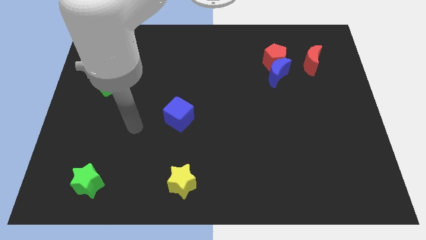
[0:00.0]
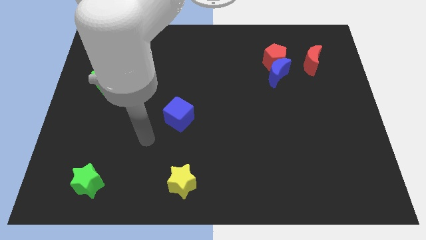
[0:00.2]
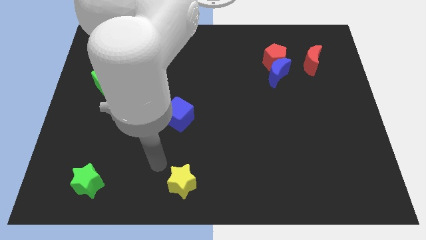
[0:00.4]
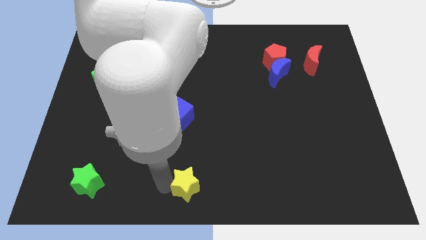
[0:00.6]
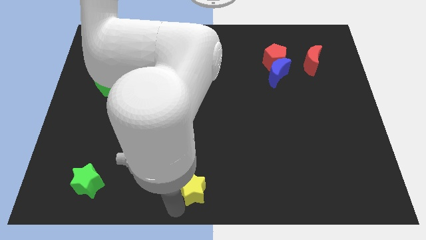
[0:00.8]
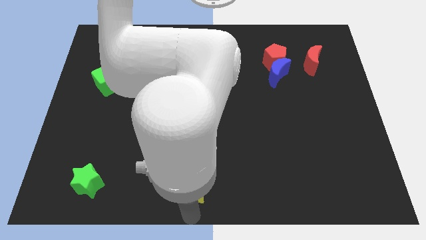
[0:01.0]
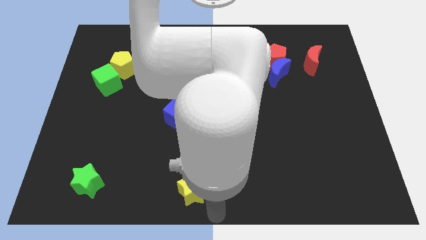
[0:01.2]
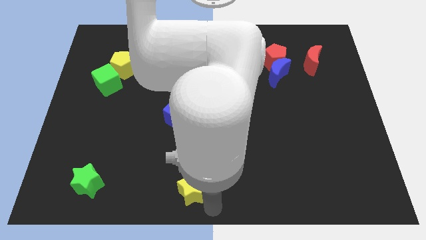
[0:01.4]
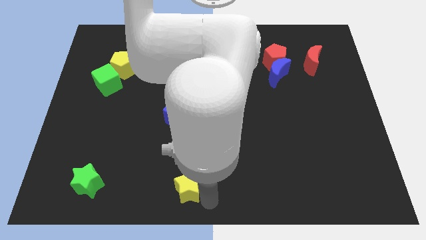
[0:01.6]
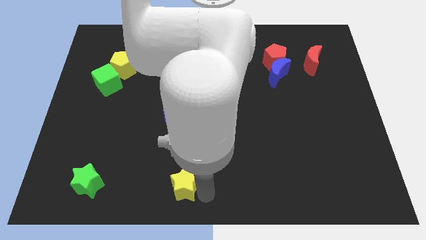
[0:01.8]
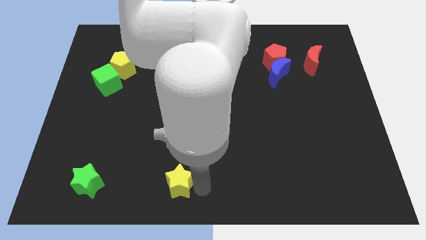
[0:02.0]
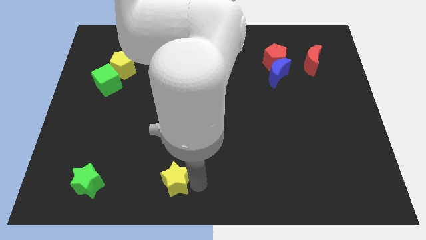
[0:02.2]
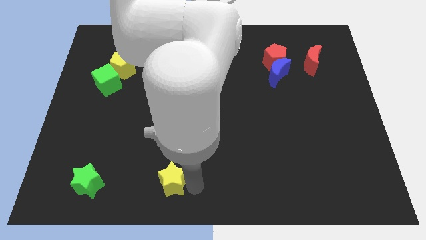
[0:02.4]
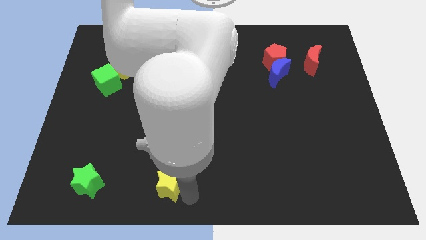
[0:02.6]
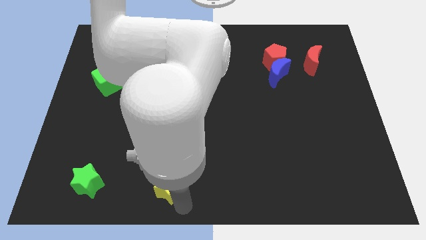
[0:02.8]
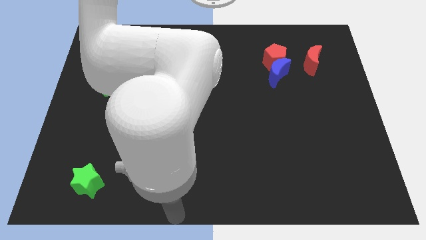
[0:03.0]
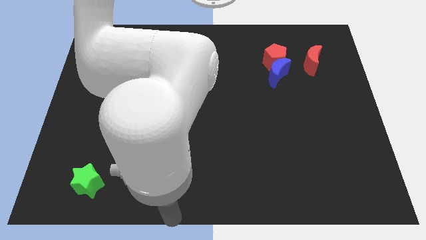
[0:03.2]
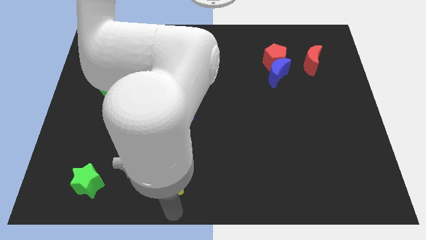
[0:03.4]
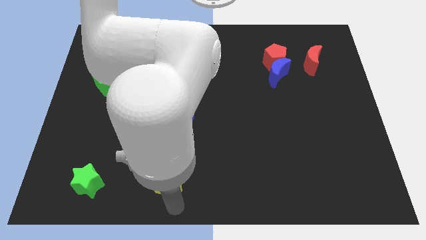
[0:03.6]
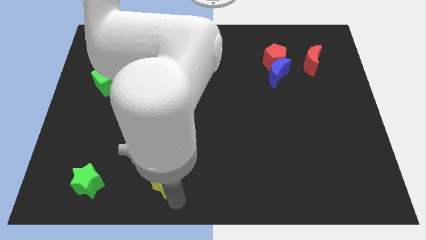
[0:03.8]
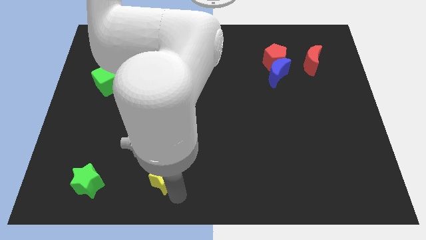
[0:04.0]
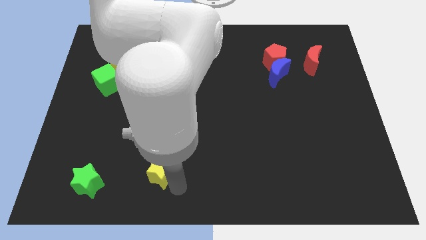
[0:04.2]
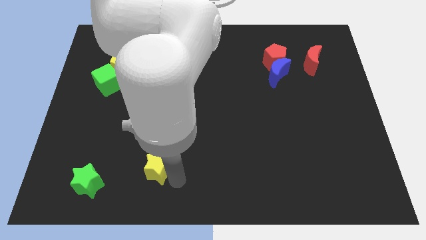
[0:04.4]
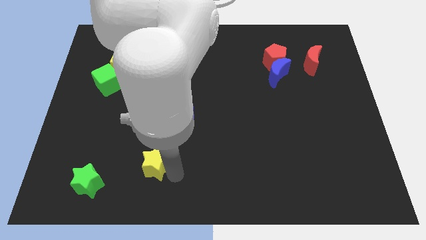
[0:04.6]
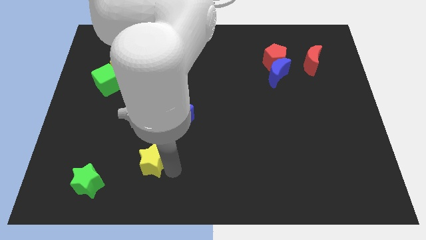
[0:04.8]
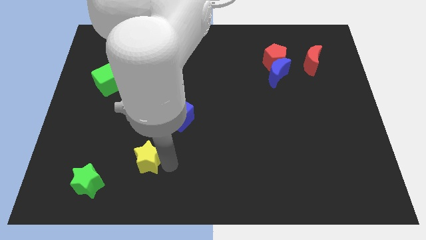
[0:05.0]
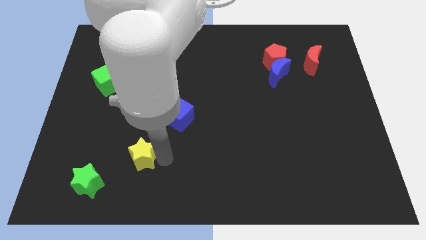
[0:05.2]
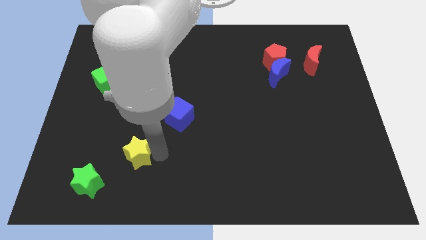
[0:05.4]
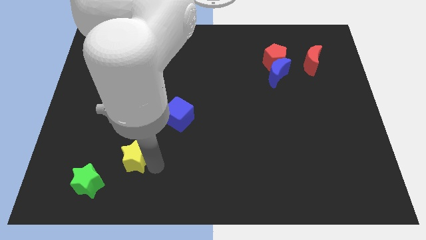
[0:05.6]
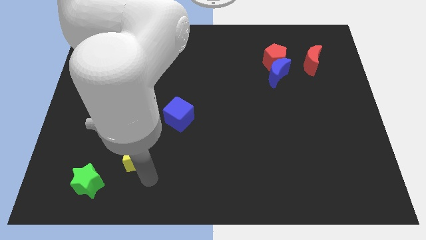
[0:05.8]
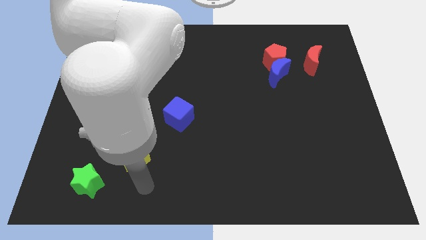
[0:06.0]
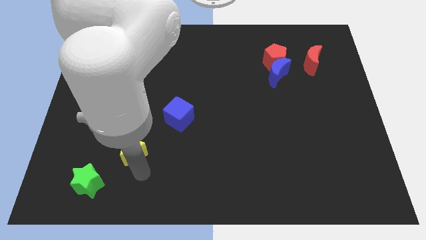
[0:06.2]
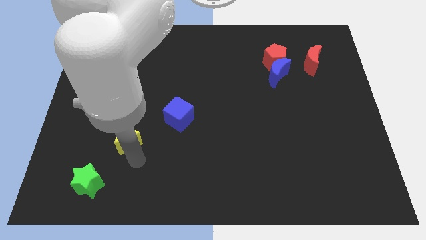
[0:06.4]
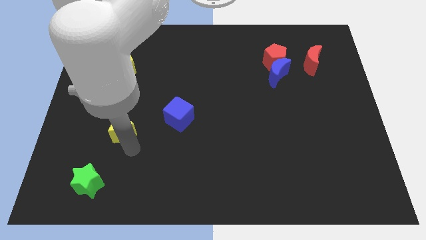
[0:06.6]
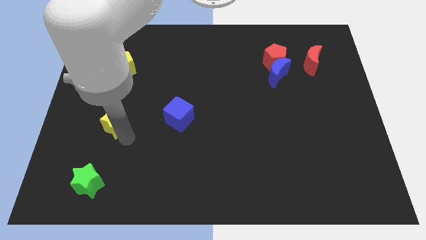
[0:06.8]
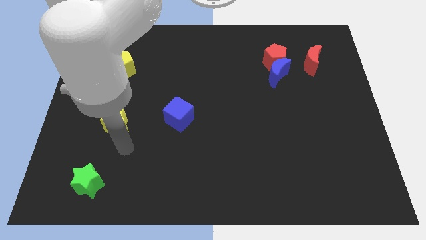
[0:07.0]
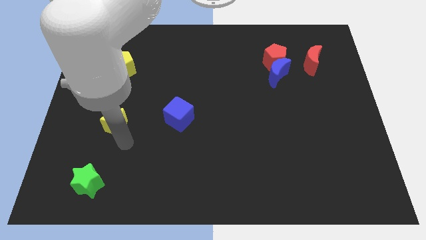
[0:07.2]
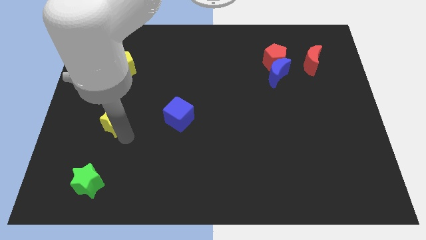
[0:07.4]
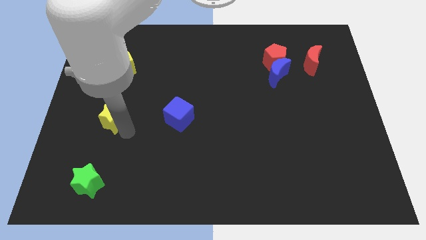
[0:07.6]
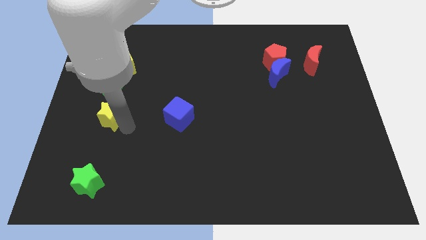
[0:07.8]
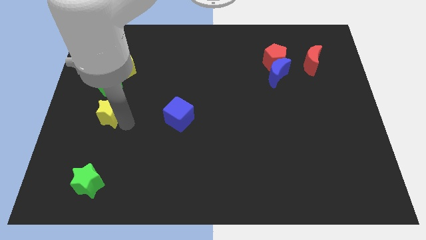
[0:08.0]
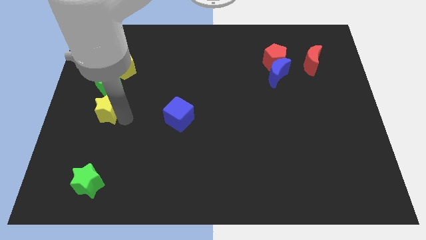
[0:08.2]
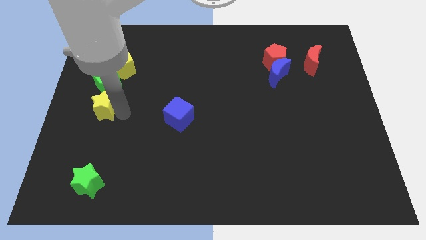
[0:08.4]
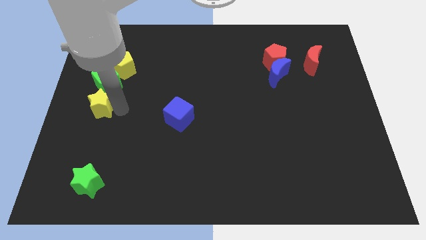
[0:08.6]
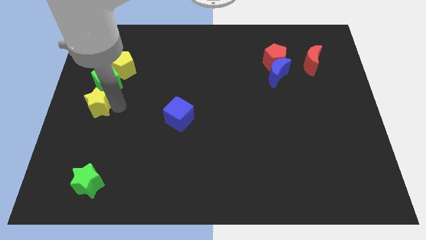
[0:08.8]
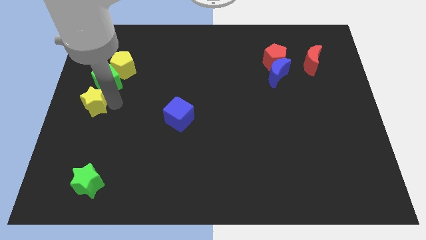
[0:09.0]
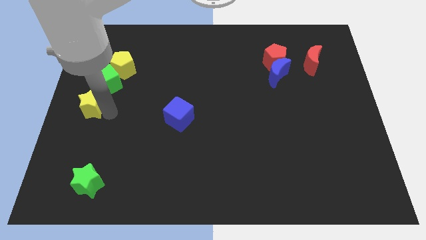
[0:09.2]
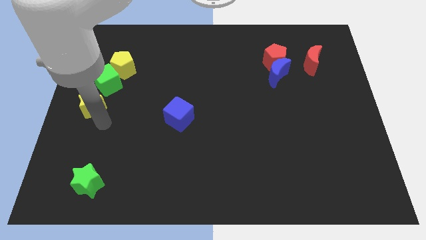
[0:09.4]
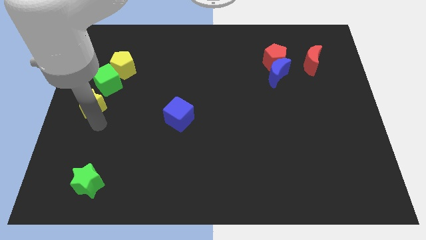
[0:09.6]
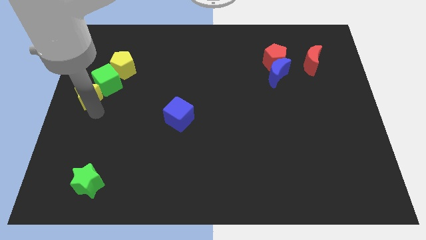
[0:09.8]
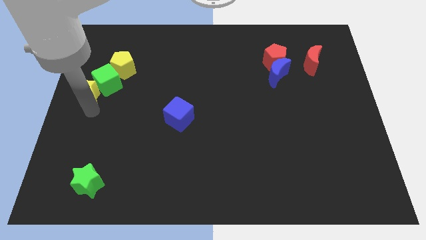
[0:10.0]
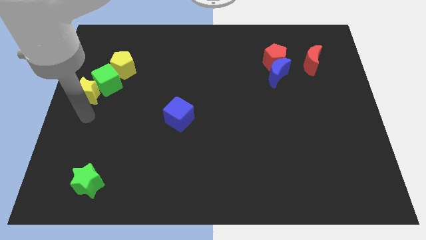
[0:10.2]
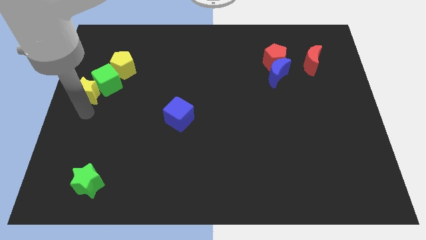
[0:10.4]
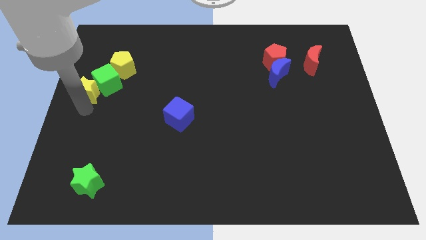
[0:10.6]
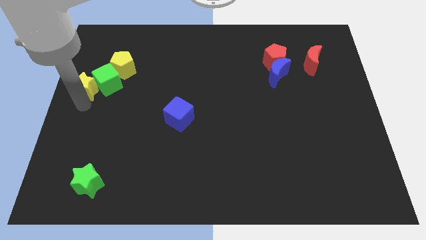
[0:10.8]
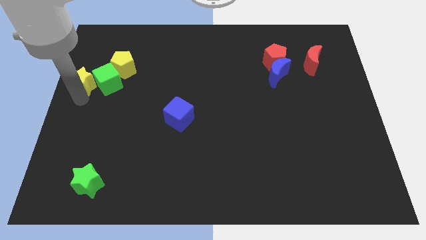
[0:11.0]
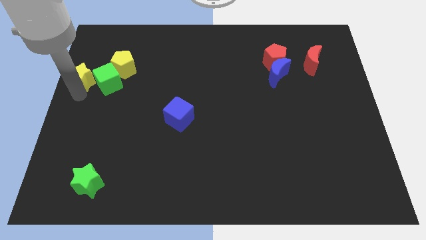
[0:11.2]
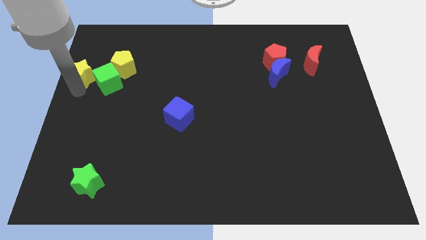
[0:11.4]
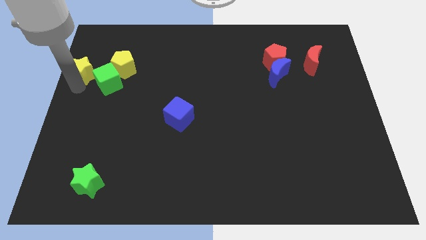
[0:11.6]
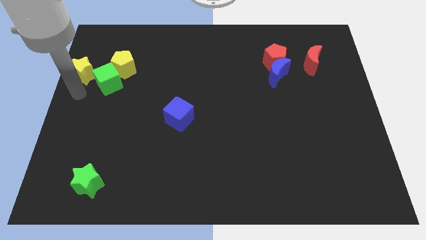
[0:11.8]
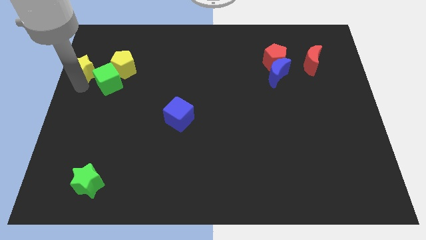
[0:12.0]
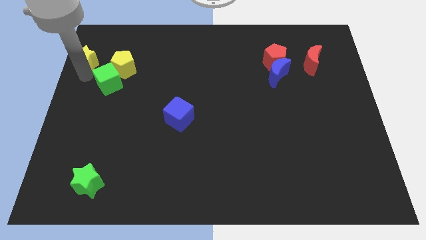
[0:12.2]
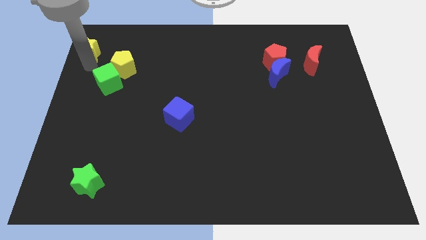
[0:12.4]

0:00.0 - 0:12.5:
push the yellow star to the top left of the board

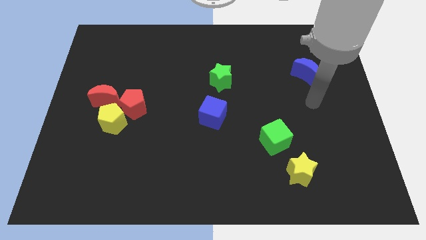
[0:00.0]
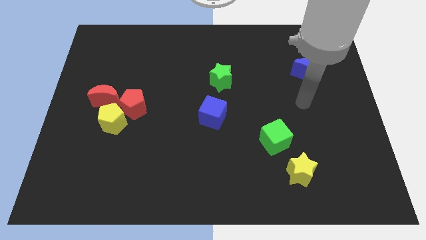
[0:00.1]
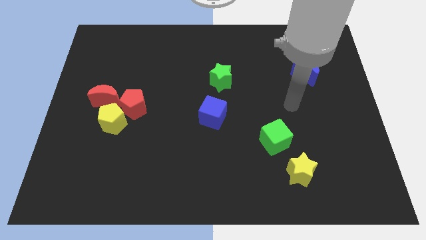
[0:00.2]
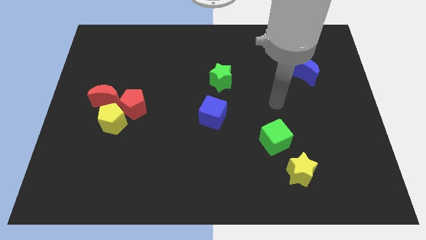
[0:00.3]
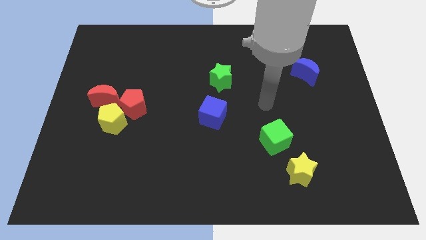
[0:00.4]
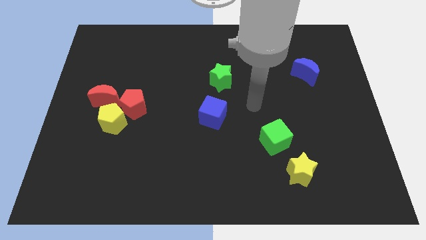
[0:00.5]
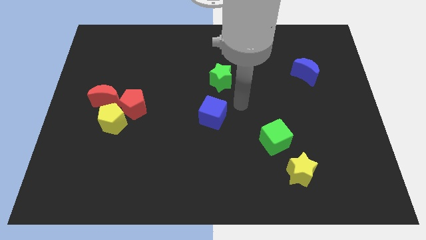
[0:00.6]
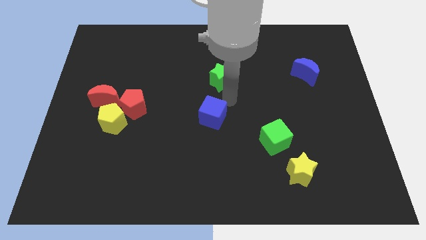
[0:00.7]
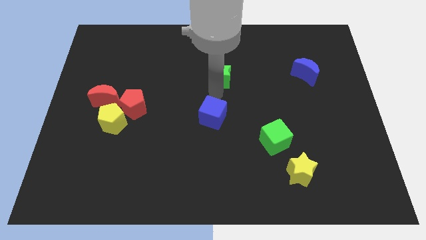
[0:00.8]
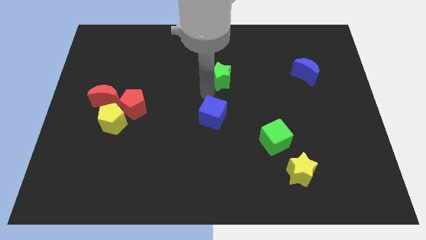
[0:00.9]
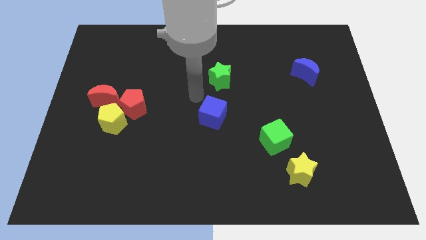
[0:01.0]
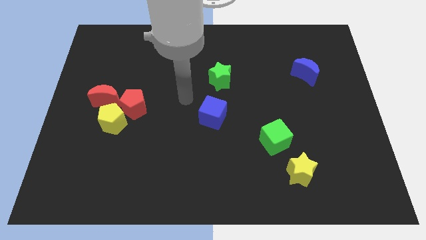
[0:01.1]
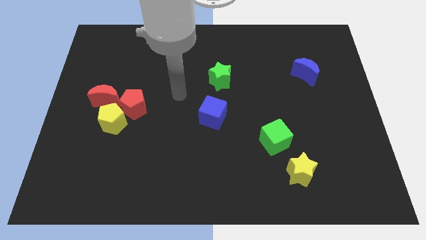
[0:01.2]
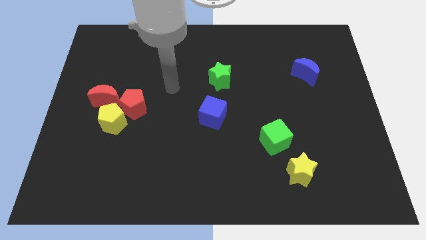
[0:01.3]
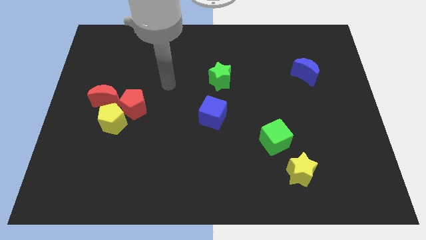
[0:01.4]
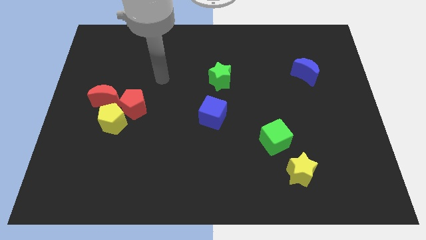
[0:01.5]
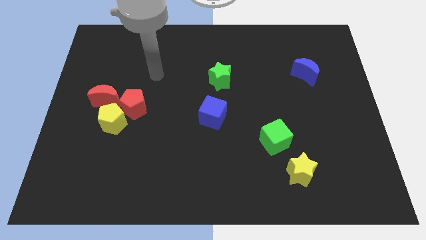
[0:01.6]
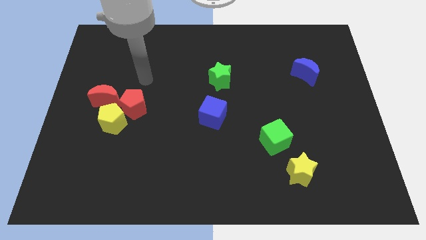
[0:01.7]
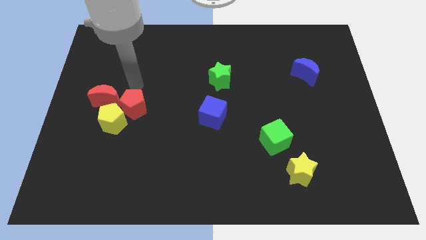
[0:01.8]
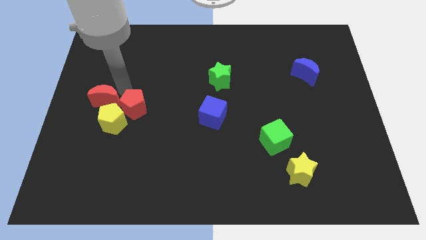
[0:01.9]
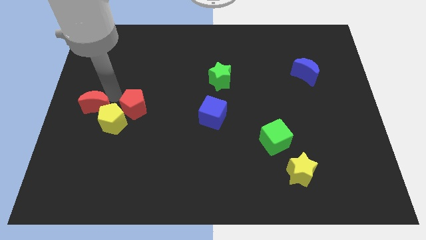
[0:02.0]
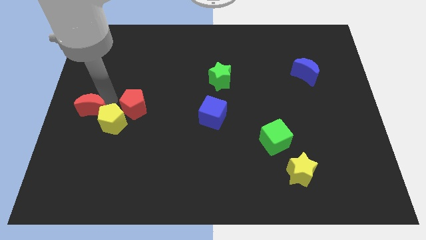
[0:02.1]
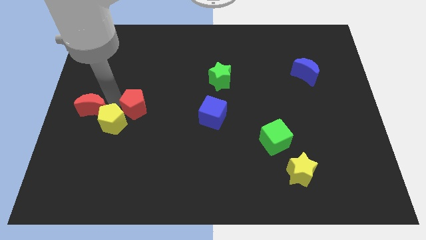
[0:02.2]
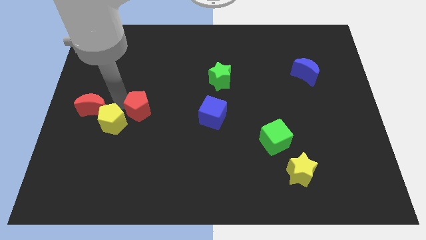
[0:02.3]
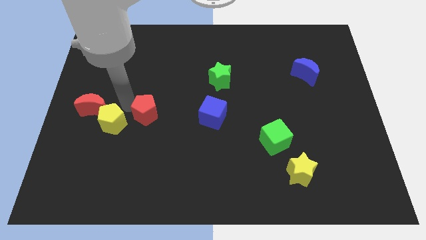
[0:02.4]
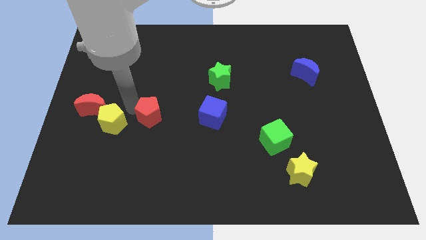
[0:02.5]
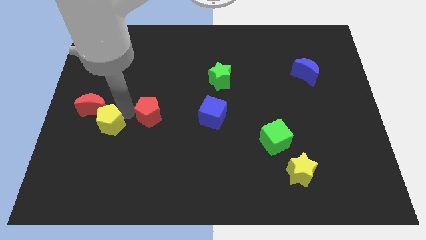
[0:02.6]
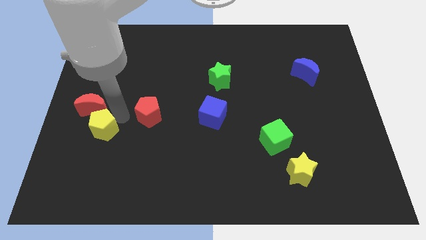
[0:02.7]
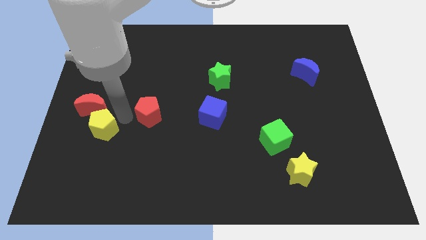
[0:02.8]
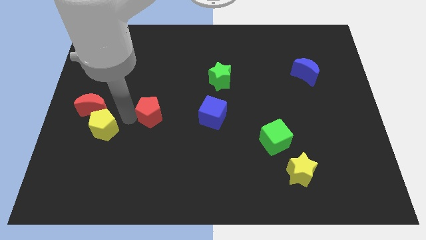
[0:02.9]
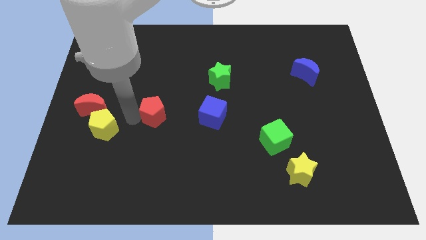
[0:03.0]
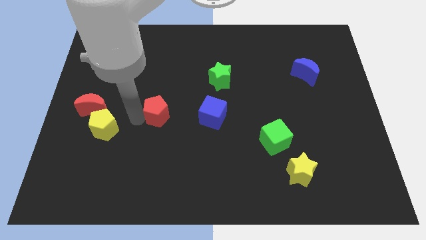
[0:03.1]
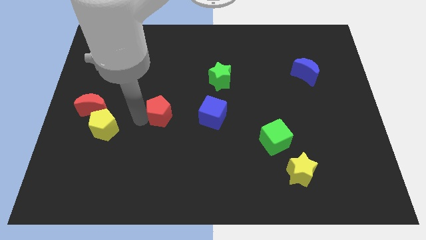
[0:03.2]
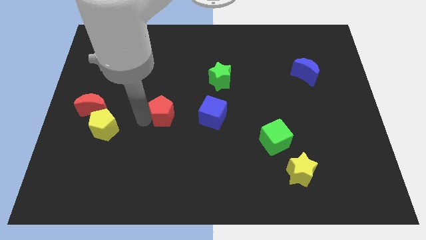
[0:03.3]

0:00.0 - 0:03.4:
slide the red pentagon to the center of the board
